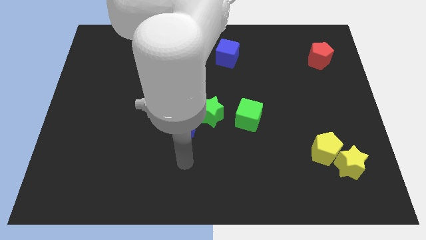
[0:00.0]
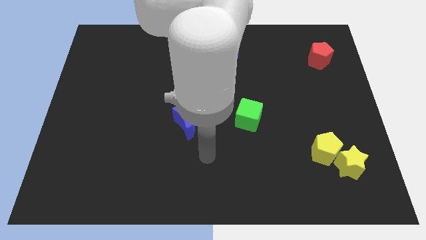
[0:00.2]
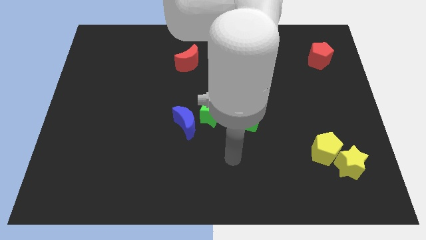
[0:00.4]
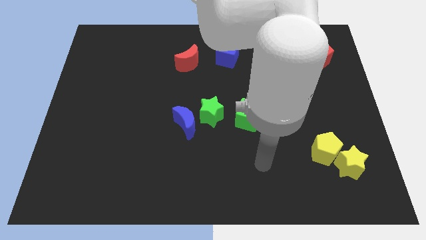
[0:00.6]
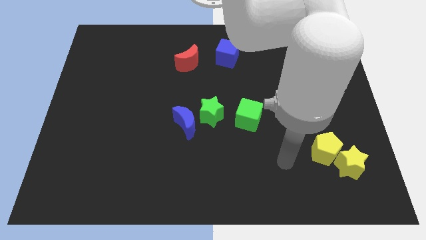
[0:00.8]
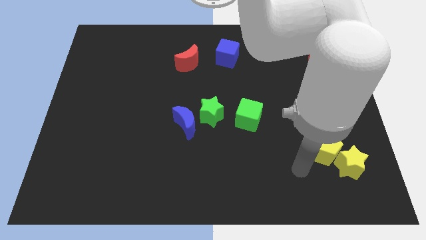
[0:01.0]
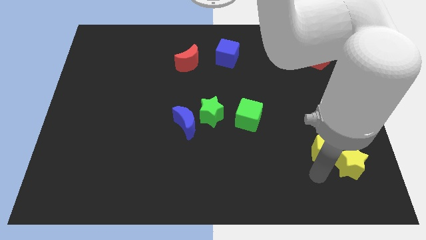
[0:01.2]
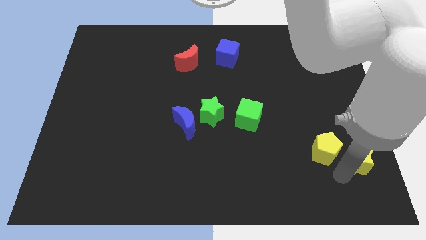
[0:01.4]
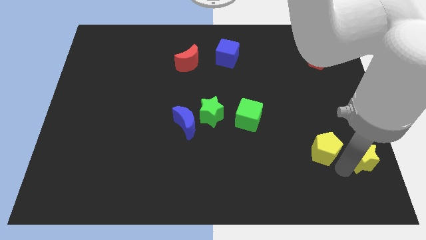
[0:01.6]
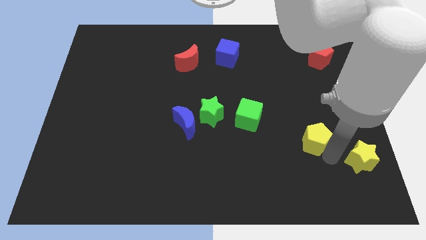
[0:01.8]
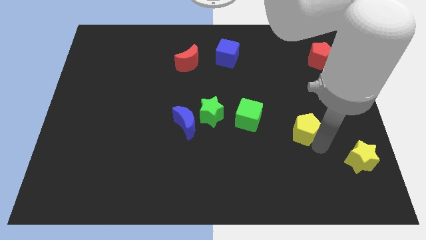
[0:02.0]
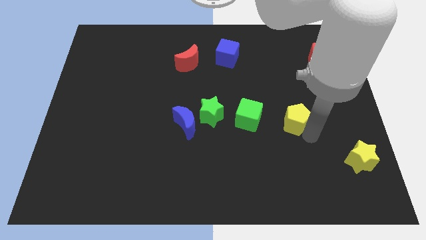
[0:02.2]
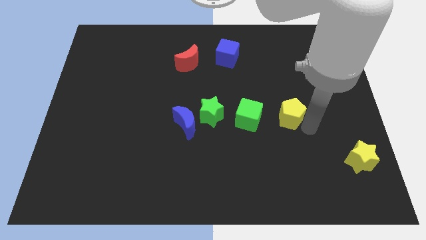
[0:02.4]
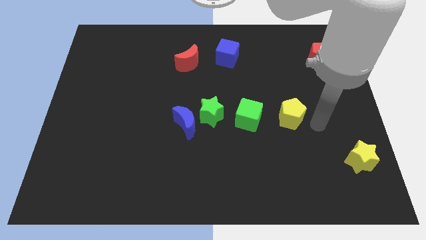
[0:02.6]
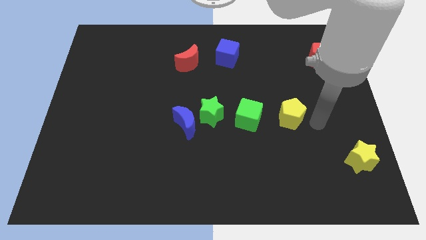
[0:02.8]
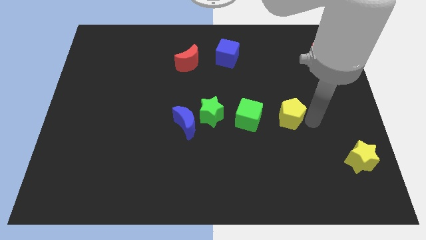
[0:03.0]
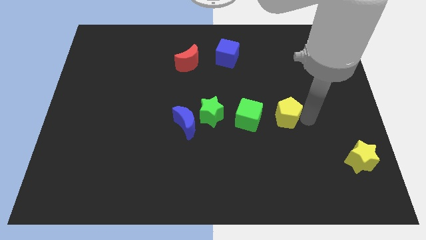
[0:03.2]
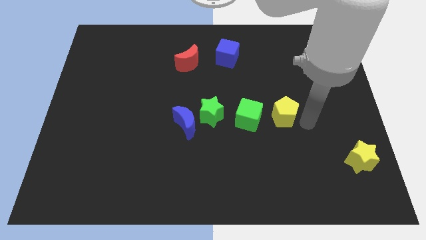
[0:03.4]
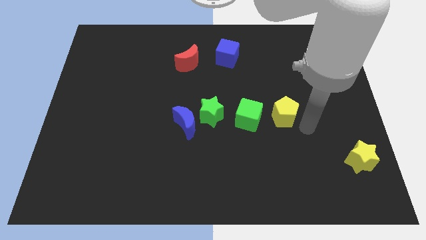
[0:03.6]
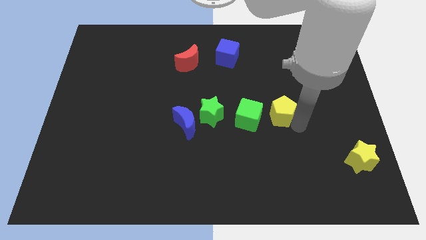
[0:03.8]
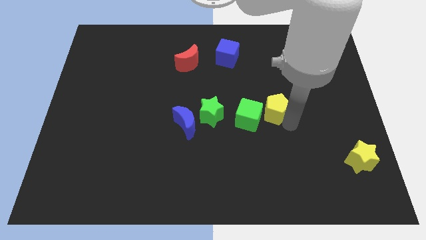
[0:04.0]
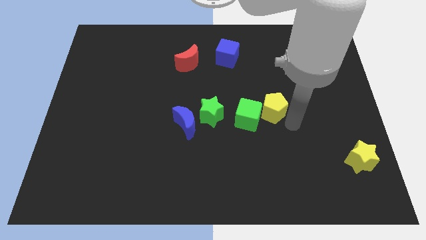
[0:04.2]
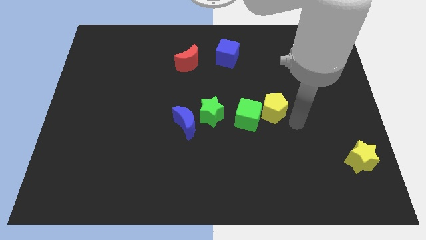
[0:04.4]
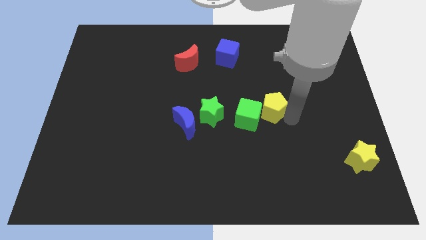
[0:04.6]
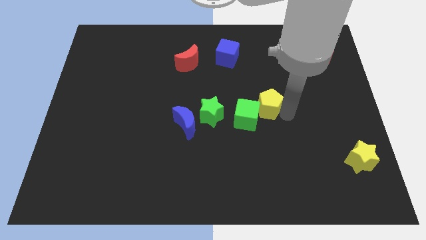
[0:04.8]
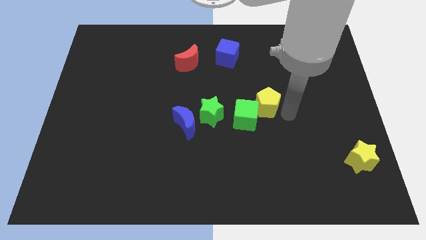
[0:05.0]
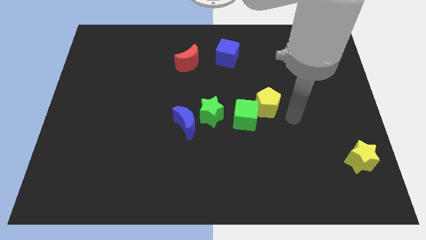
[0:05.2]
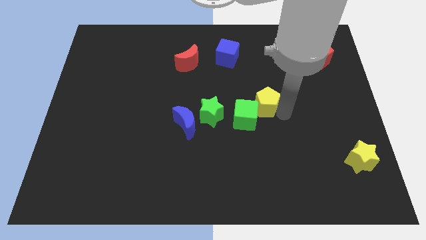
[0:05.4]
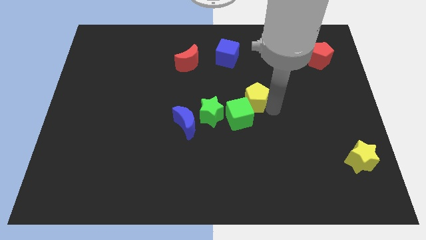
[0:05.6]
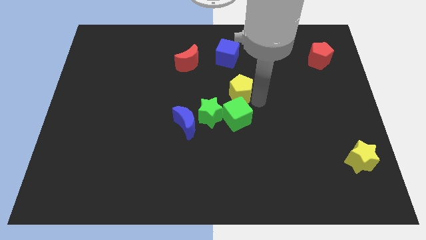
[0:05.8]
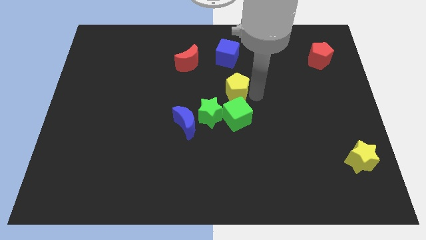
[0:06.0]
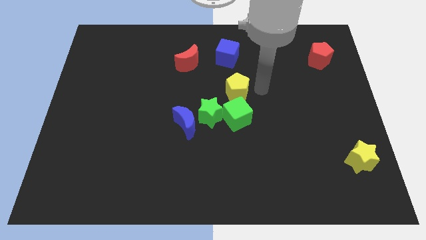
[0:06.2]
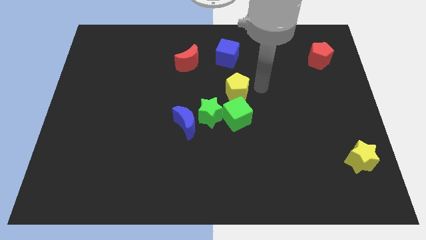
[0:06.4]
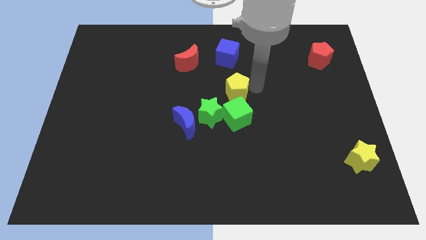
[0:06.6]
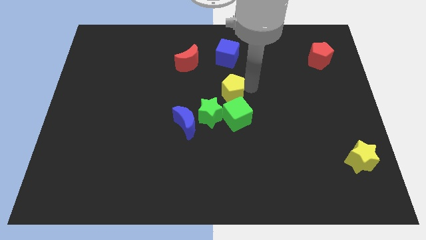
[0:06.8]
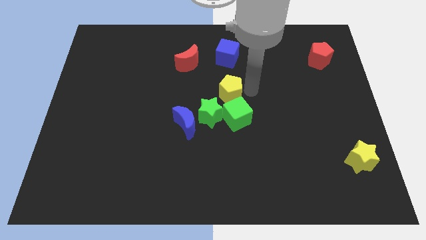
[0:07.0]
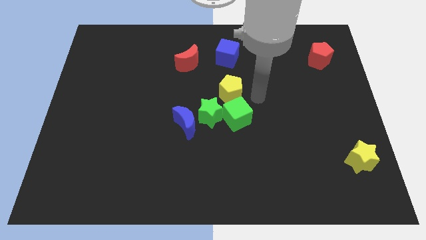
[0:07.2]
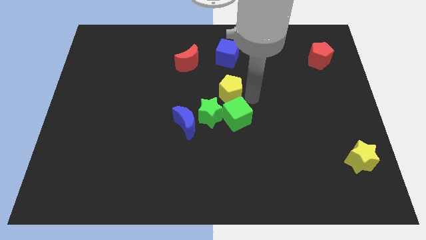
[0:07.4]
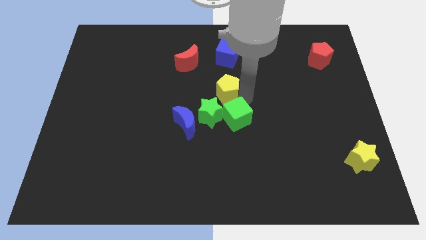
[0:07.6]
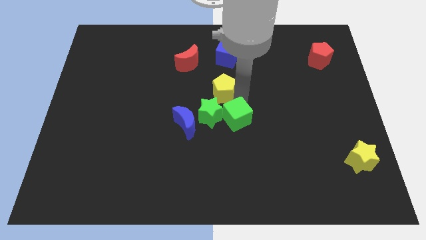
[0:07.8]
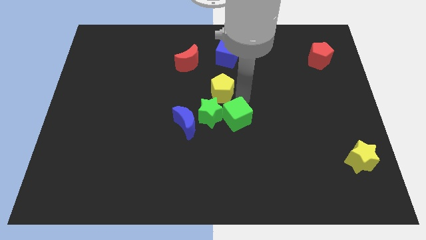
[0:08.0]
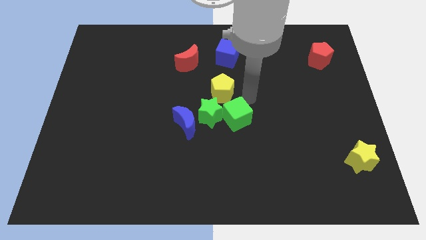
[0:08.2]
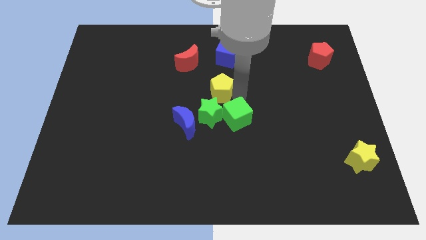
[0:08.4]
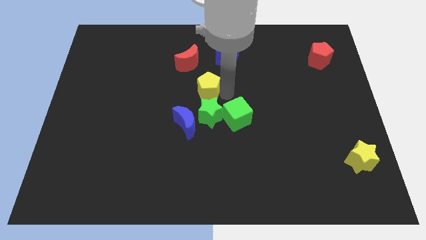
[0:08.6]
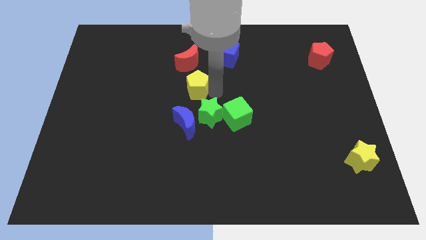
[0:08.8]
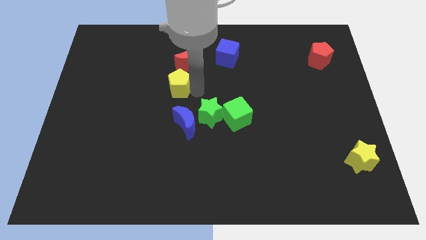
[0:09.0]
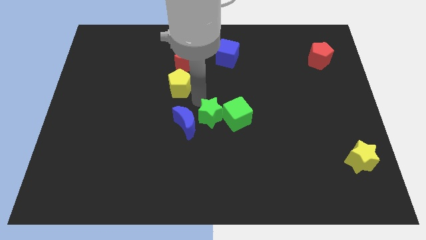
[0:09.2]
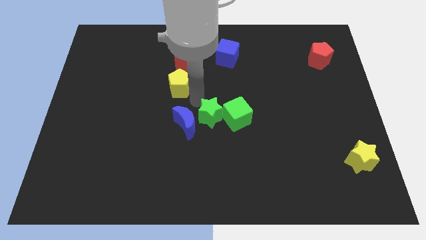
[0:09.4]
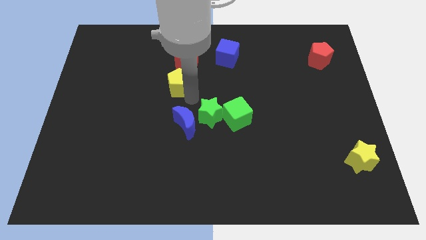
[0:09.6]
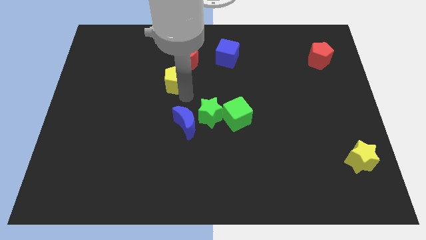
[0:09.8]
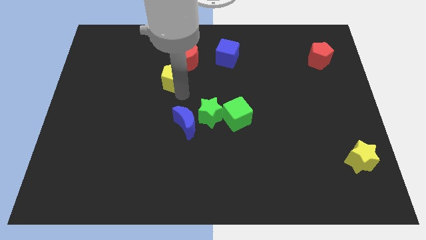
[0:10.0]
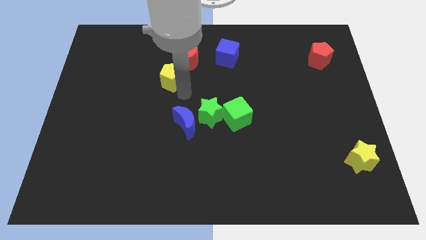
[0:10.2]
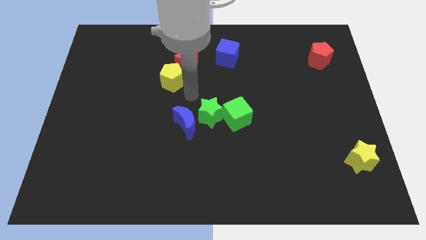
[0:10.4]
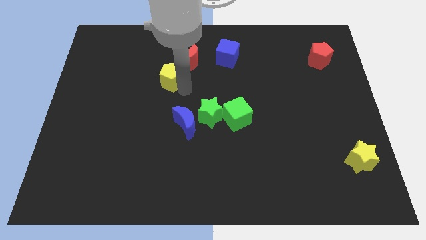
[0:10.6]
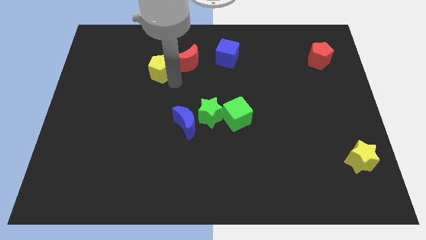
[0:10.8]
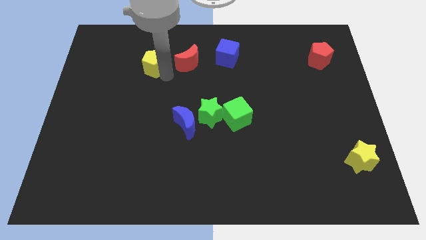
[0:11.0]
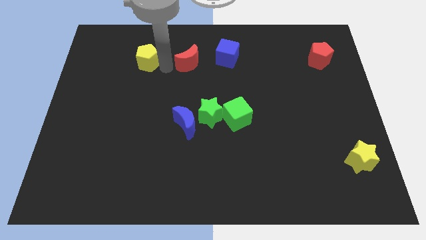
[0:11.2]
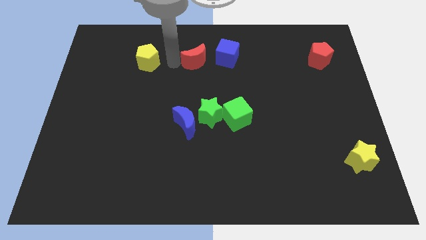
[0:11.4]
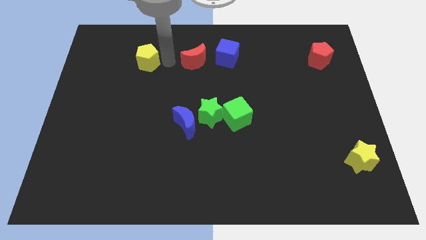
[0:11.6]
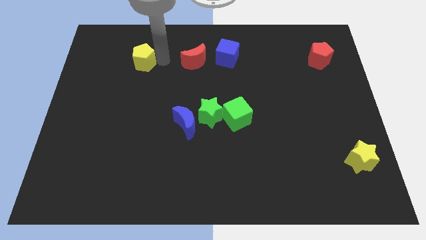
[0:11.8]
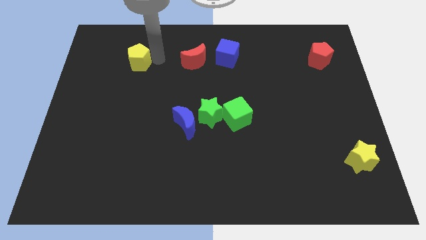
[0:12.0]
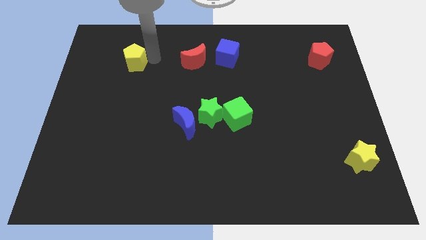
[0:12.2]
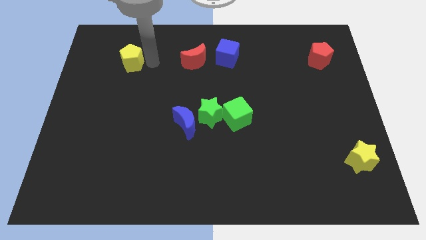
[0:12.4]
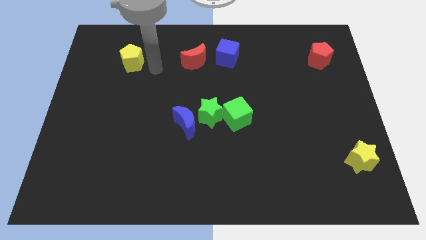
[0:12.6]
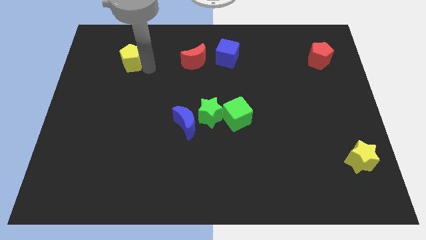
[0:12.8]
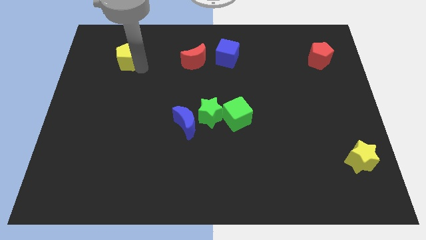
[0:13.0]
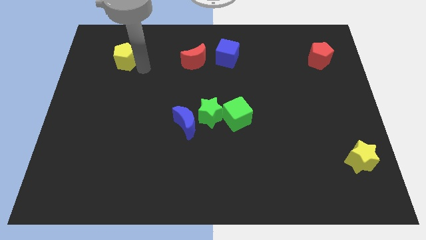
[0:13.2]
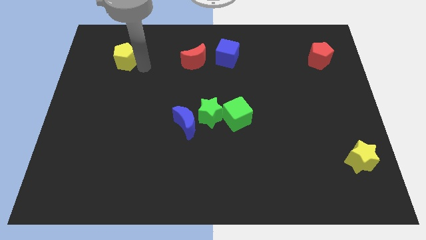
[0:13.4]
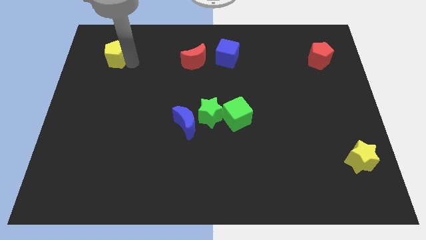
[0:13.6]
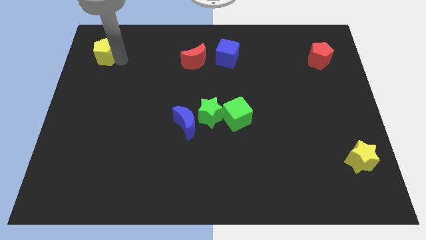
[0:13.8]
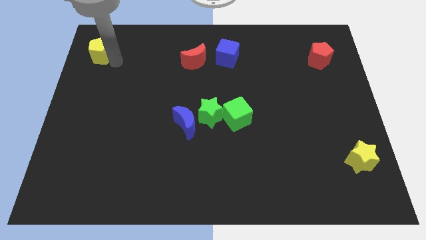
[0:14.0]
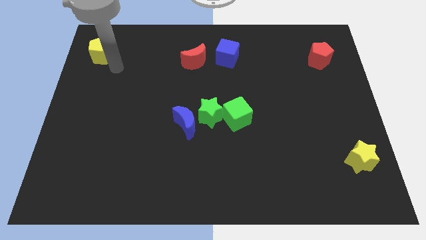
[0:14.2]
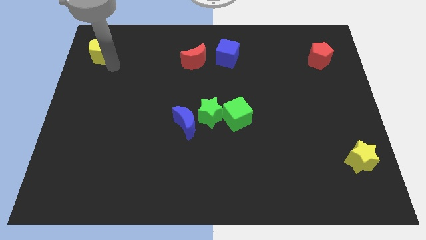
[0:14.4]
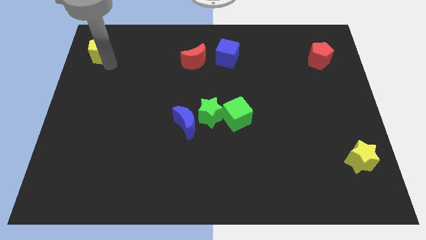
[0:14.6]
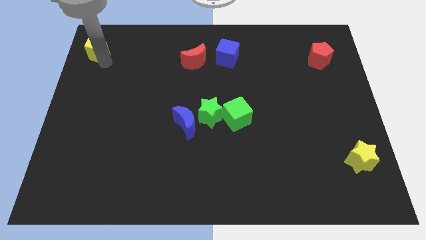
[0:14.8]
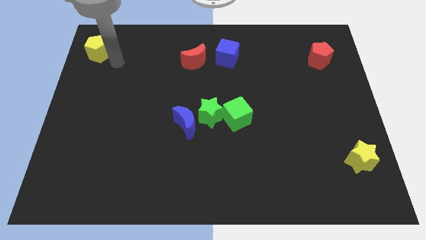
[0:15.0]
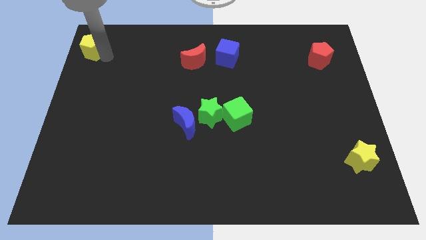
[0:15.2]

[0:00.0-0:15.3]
slide the yellow pentagon to the top left corner
